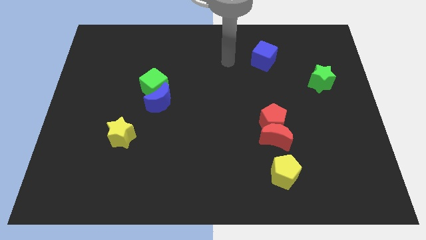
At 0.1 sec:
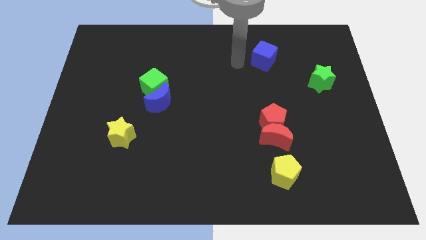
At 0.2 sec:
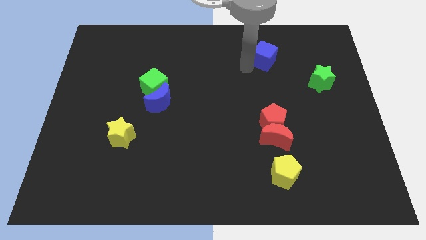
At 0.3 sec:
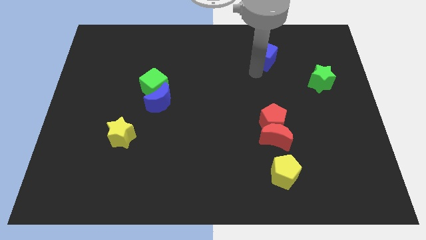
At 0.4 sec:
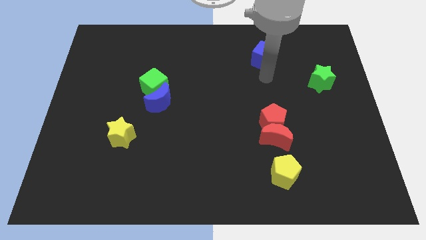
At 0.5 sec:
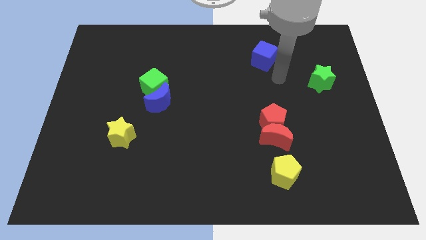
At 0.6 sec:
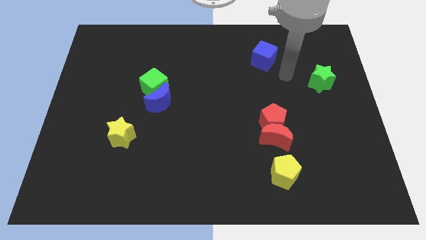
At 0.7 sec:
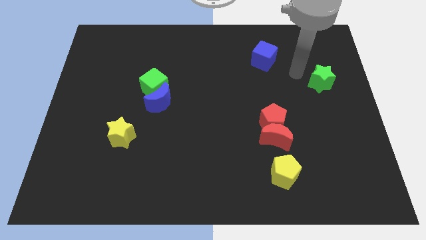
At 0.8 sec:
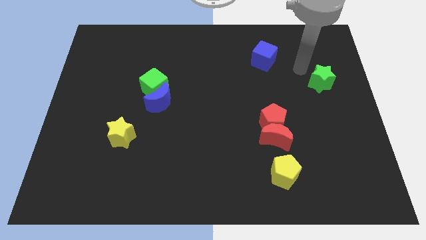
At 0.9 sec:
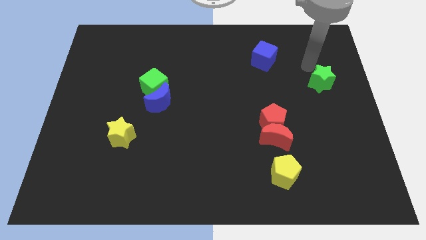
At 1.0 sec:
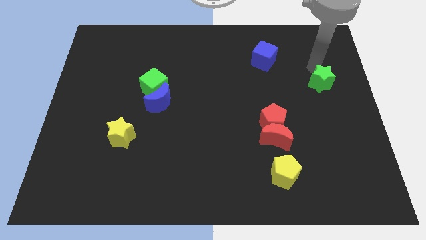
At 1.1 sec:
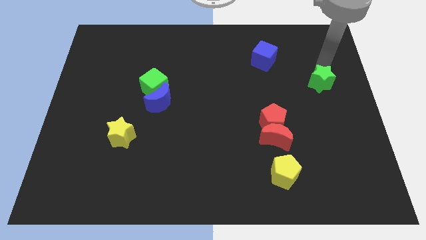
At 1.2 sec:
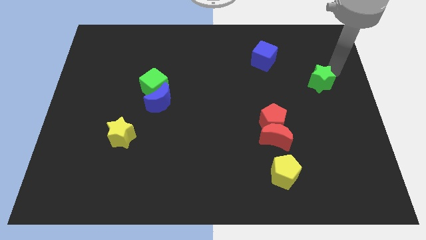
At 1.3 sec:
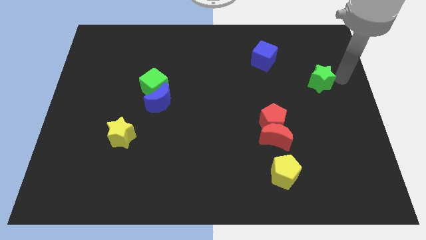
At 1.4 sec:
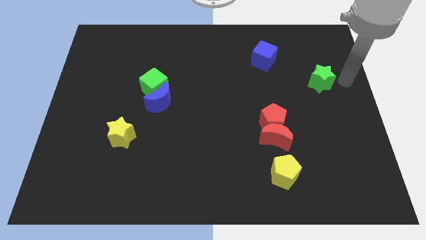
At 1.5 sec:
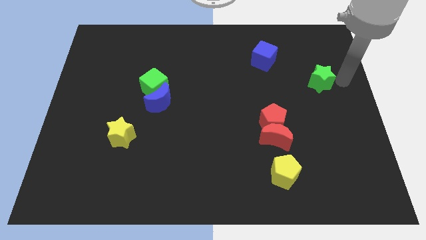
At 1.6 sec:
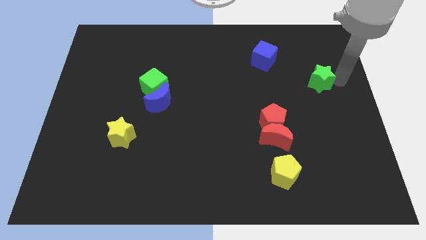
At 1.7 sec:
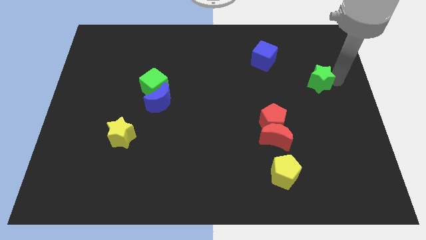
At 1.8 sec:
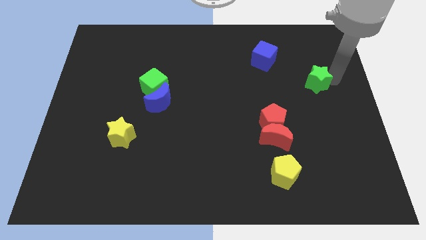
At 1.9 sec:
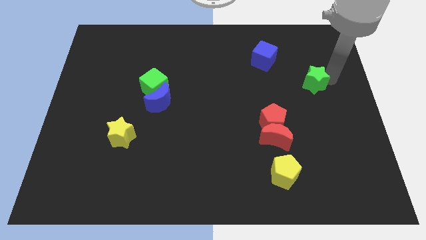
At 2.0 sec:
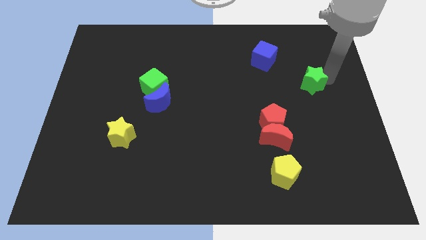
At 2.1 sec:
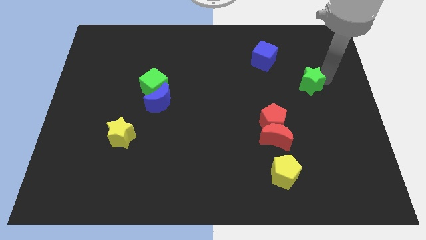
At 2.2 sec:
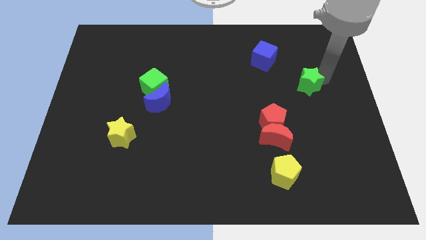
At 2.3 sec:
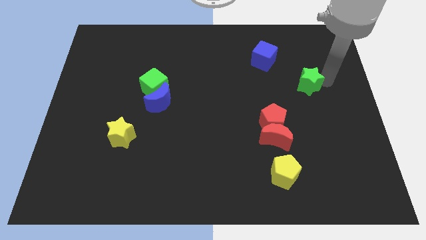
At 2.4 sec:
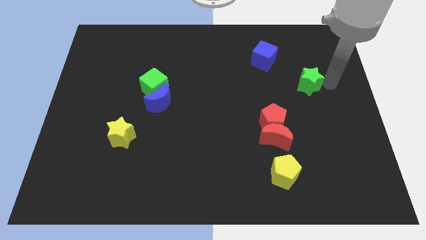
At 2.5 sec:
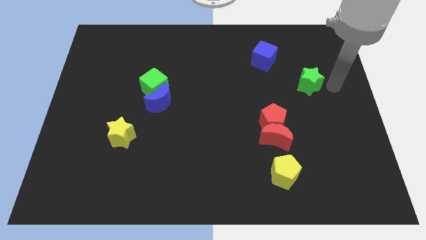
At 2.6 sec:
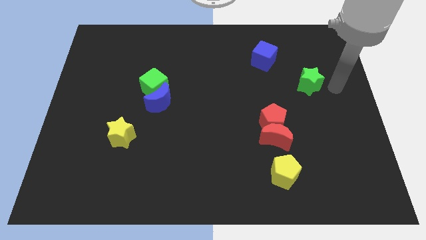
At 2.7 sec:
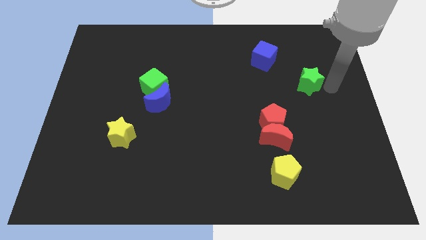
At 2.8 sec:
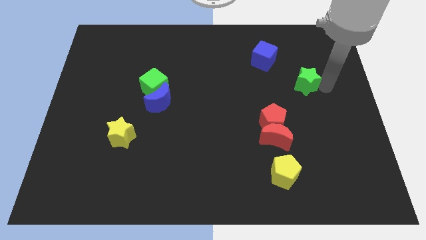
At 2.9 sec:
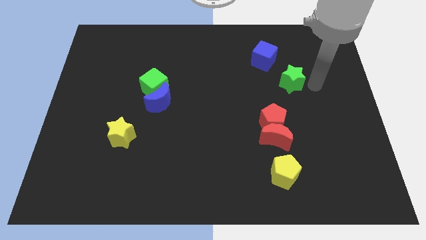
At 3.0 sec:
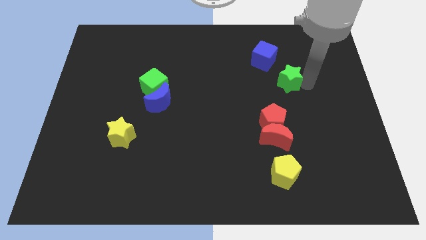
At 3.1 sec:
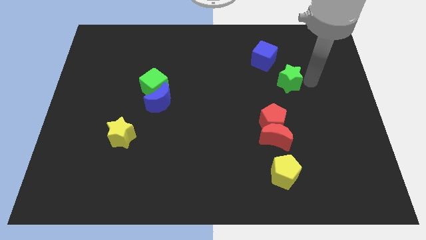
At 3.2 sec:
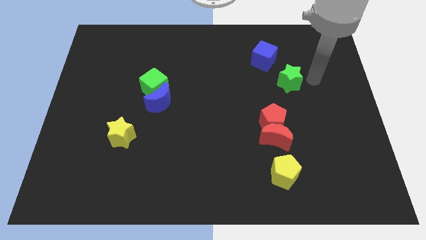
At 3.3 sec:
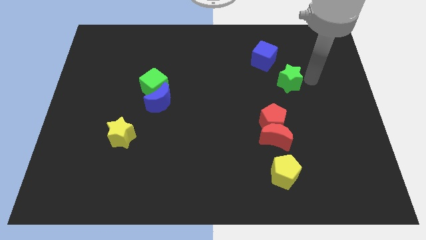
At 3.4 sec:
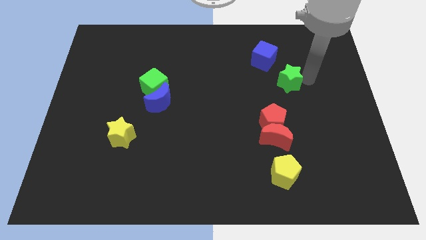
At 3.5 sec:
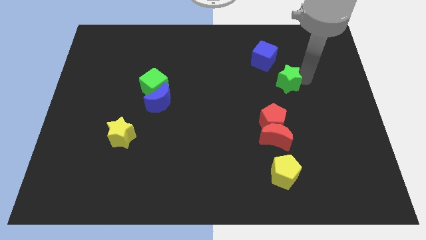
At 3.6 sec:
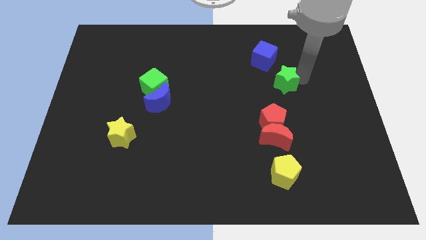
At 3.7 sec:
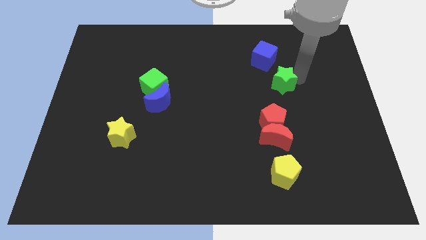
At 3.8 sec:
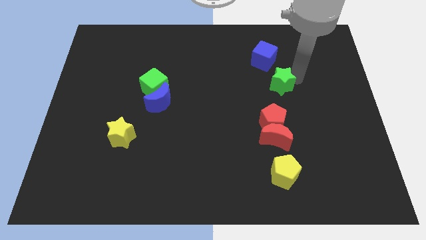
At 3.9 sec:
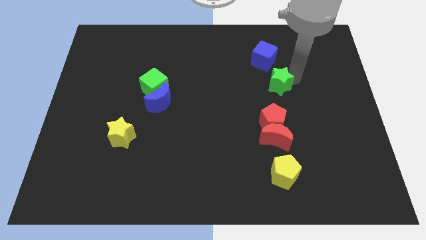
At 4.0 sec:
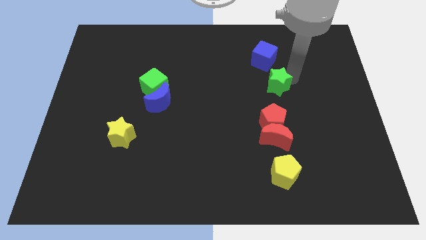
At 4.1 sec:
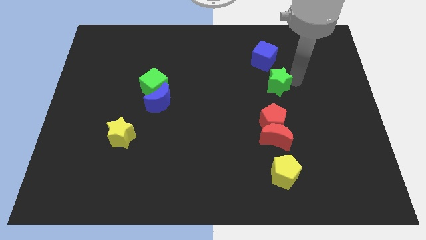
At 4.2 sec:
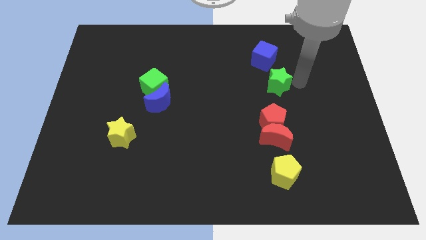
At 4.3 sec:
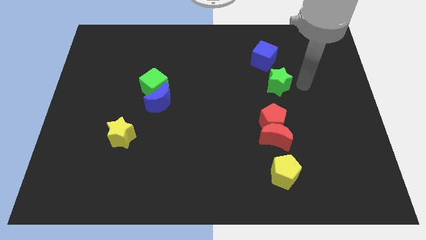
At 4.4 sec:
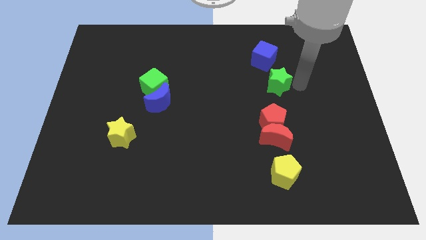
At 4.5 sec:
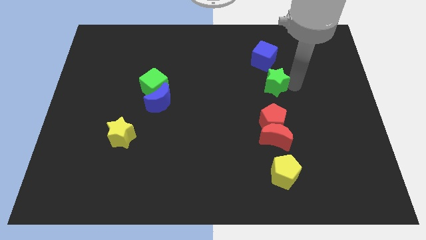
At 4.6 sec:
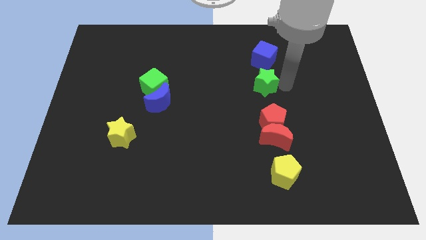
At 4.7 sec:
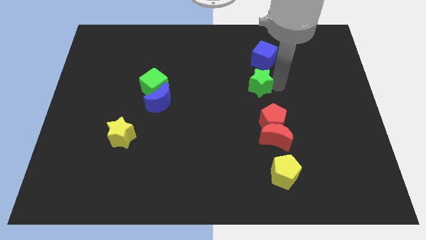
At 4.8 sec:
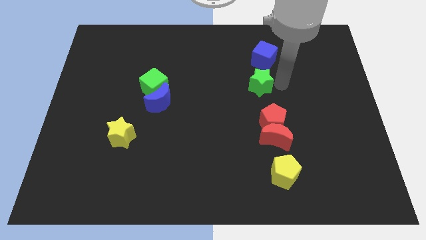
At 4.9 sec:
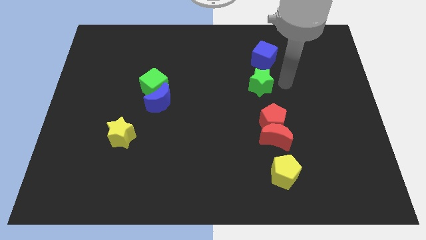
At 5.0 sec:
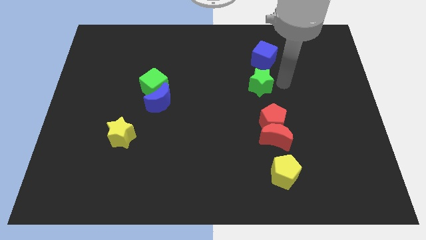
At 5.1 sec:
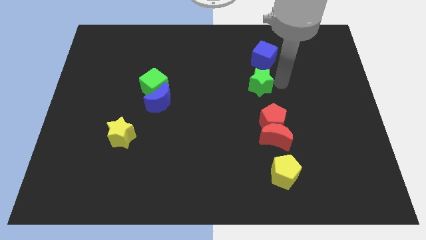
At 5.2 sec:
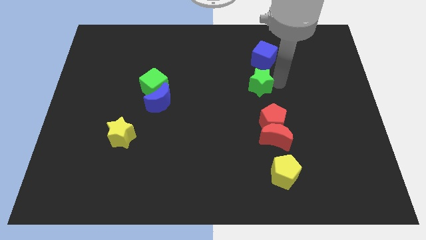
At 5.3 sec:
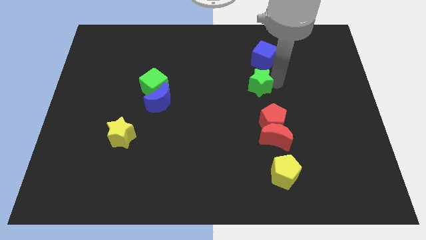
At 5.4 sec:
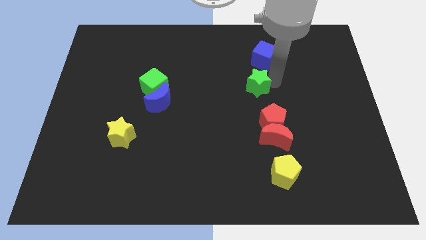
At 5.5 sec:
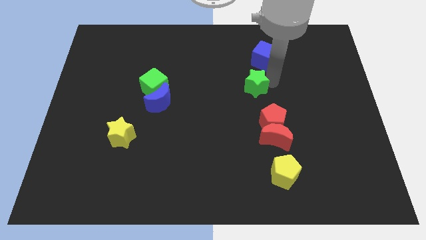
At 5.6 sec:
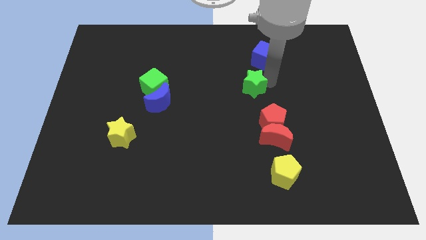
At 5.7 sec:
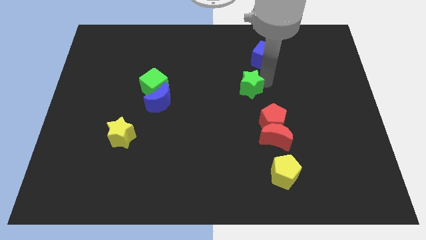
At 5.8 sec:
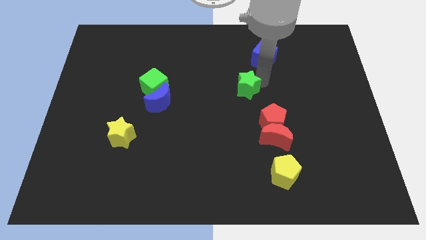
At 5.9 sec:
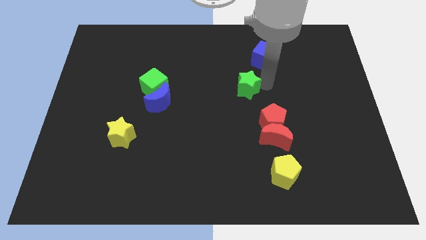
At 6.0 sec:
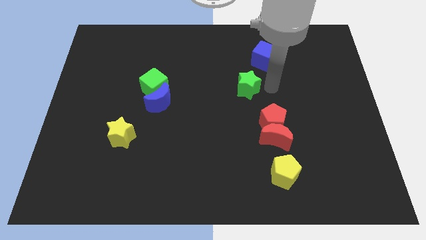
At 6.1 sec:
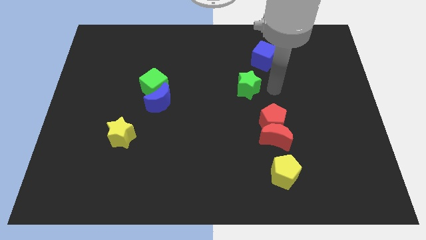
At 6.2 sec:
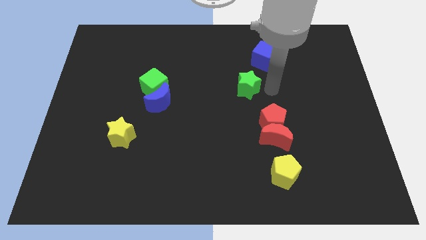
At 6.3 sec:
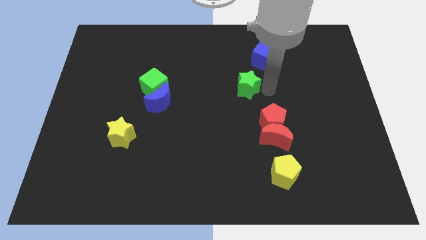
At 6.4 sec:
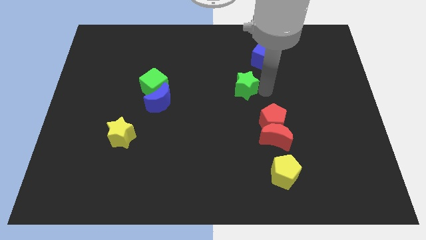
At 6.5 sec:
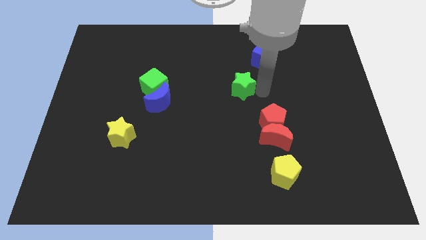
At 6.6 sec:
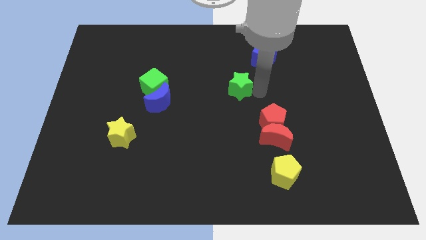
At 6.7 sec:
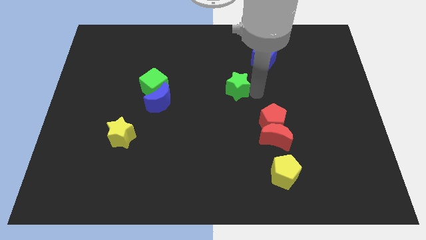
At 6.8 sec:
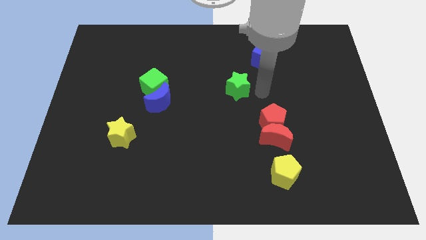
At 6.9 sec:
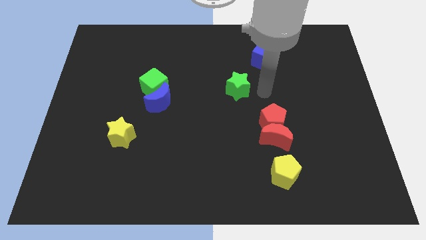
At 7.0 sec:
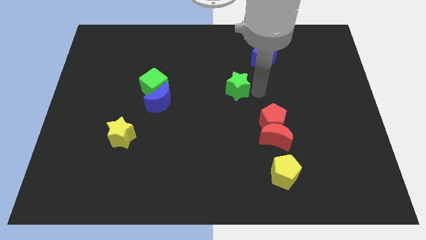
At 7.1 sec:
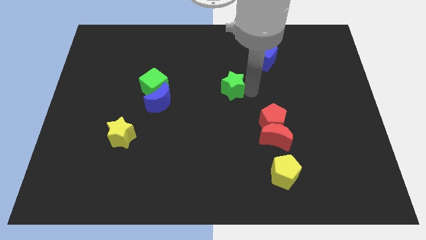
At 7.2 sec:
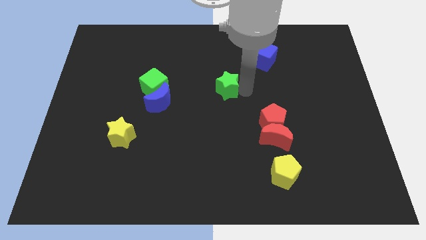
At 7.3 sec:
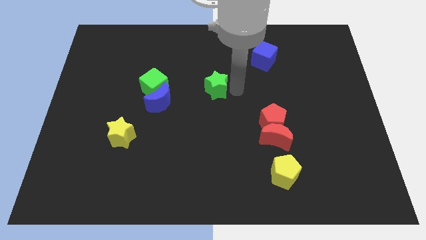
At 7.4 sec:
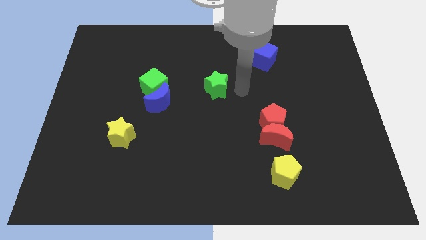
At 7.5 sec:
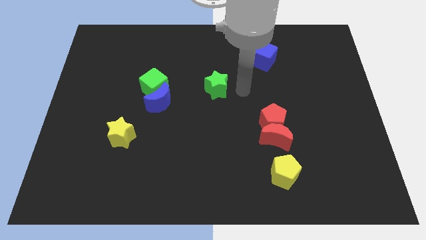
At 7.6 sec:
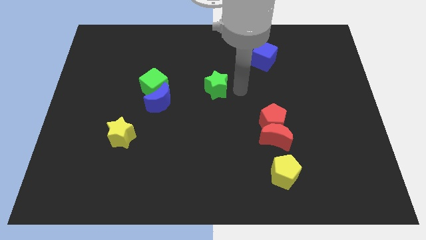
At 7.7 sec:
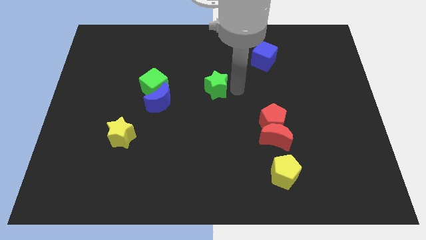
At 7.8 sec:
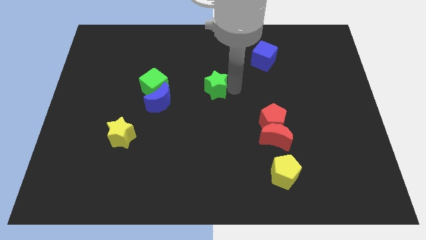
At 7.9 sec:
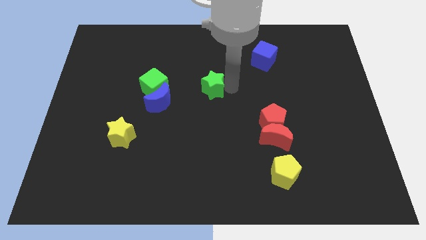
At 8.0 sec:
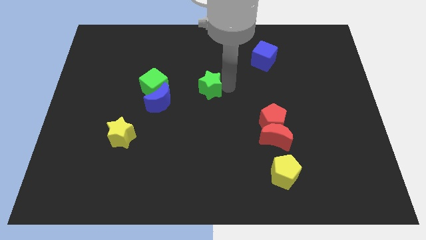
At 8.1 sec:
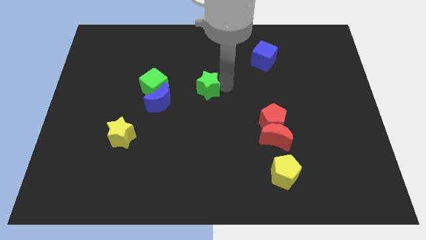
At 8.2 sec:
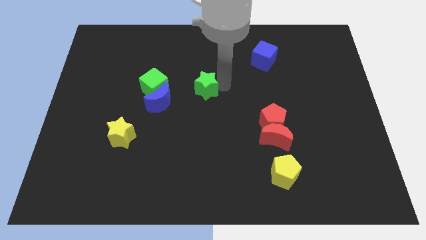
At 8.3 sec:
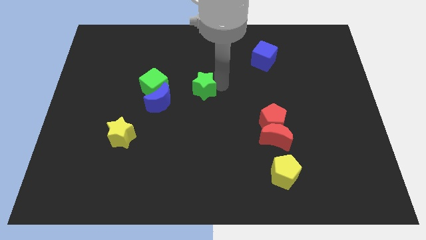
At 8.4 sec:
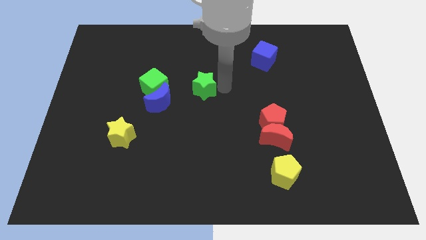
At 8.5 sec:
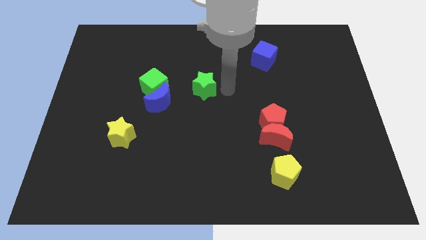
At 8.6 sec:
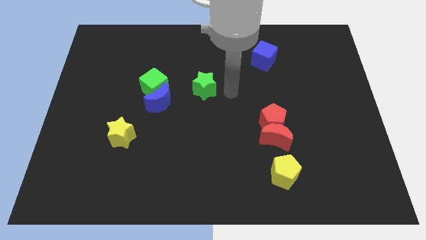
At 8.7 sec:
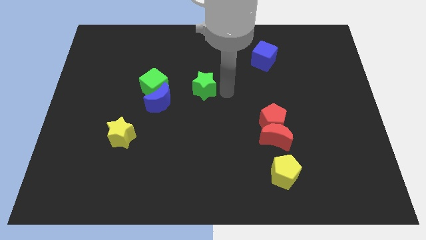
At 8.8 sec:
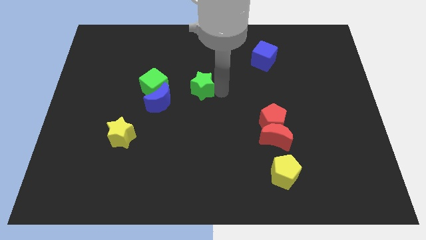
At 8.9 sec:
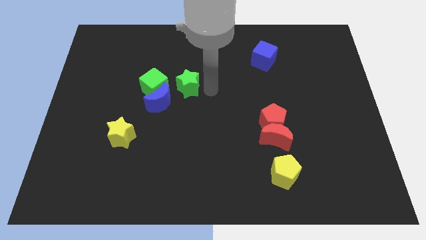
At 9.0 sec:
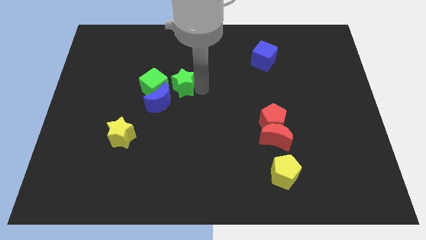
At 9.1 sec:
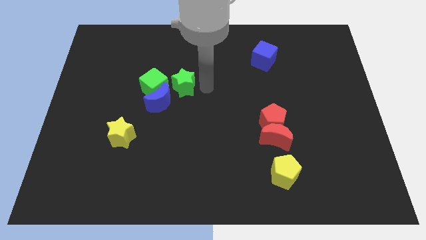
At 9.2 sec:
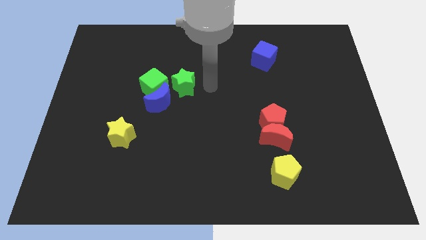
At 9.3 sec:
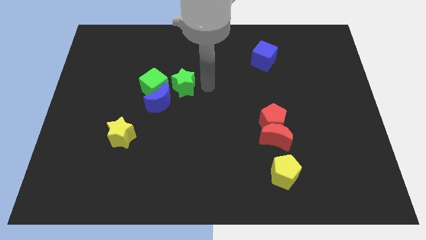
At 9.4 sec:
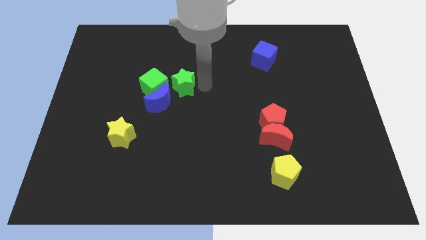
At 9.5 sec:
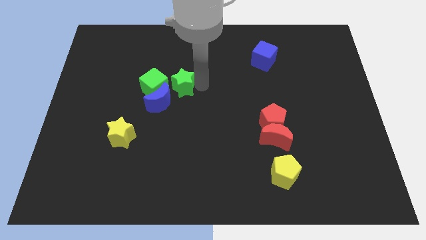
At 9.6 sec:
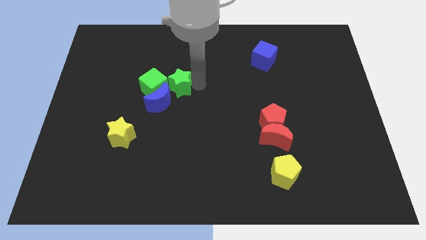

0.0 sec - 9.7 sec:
slide the green star towards the green cube
